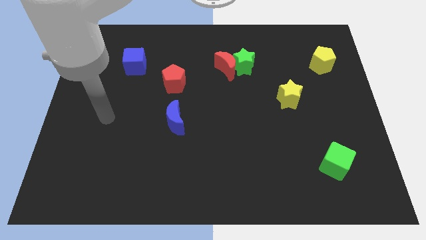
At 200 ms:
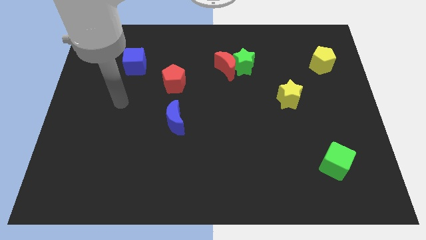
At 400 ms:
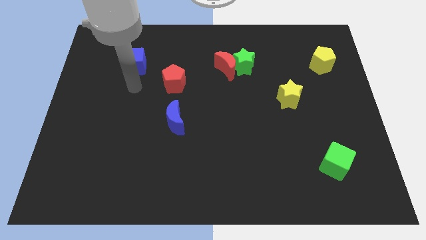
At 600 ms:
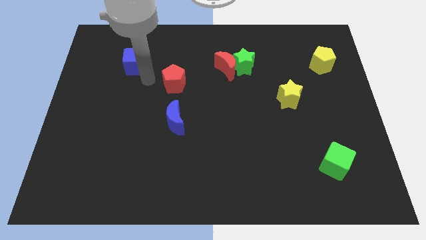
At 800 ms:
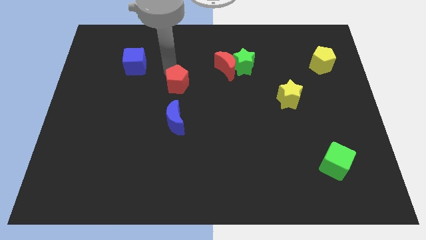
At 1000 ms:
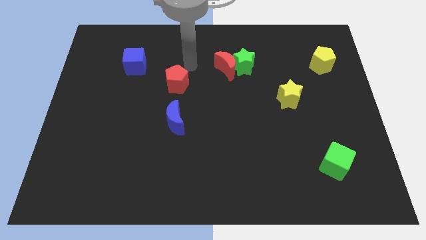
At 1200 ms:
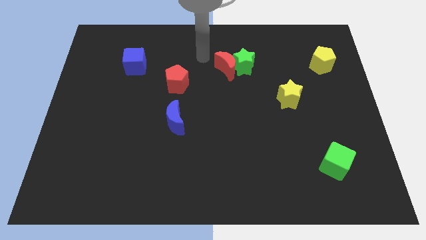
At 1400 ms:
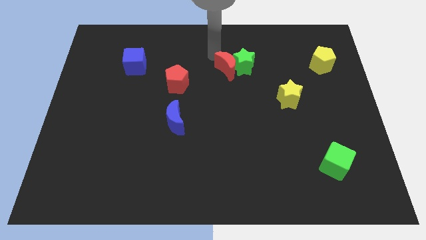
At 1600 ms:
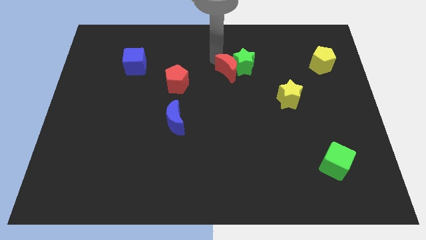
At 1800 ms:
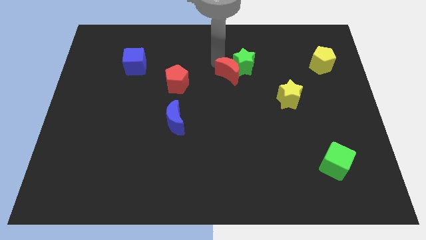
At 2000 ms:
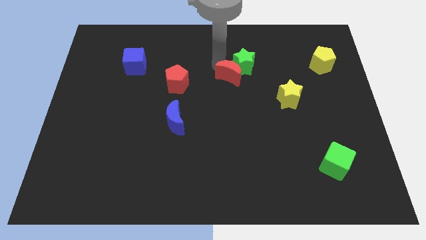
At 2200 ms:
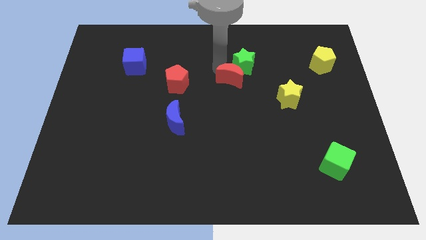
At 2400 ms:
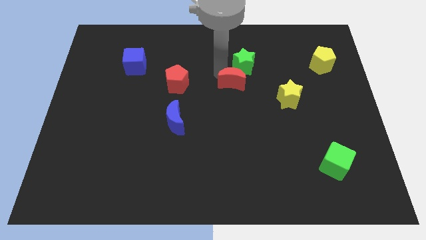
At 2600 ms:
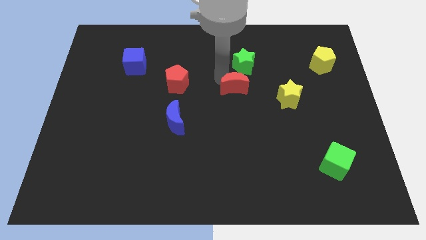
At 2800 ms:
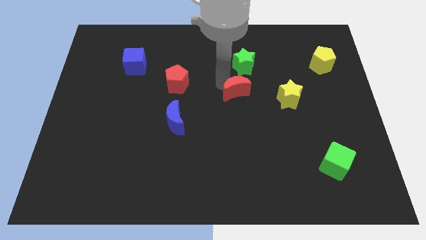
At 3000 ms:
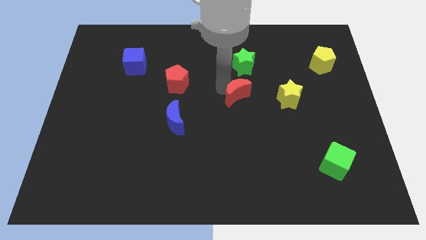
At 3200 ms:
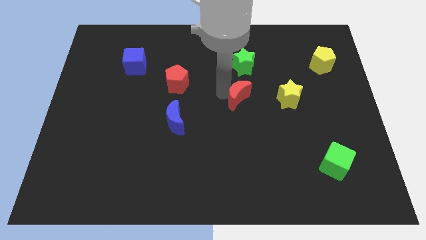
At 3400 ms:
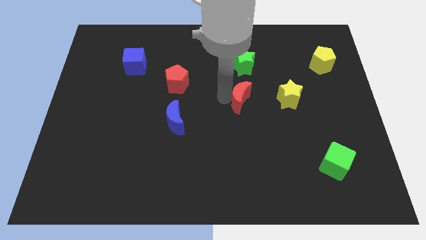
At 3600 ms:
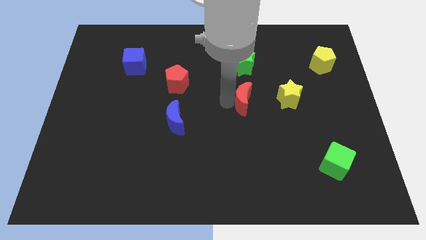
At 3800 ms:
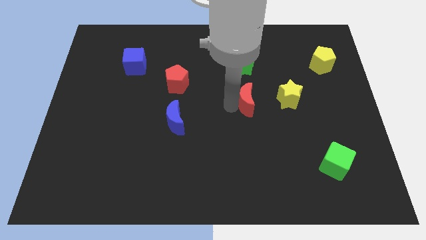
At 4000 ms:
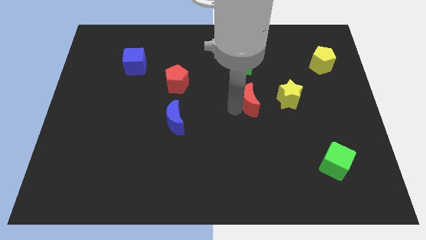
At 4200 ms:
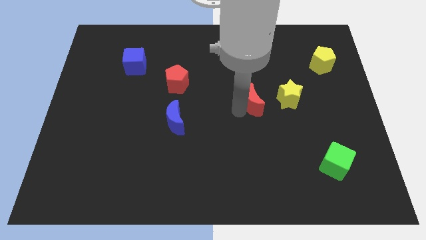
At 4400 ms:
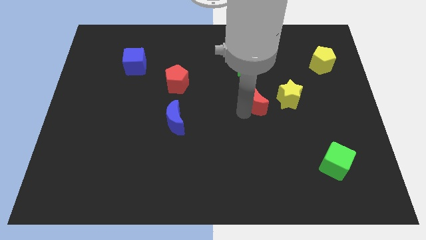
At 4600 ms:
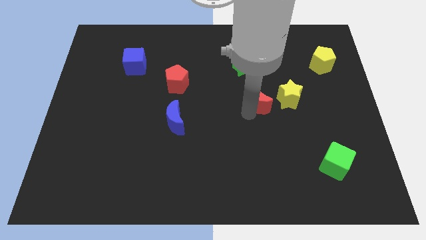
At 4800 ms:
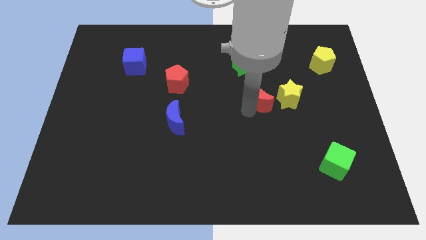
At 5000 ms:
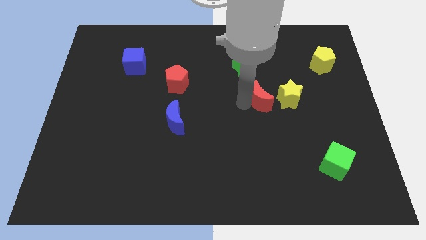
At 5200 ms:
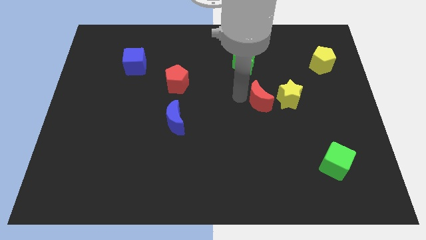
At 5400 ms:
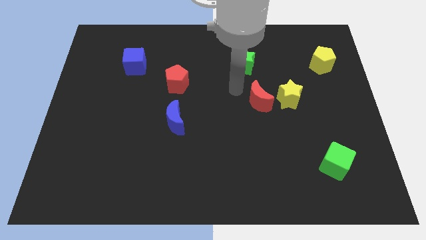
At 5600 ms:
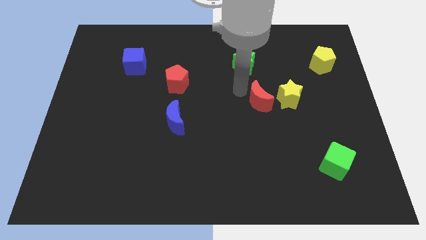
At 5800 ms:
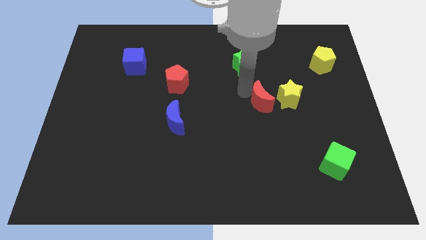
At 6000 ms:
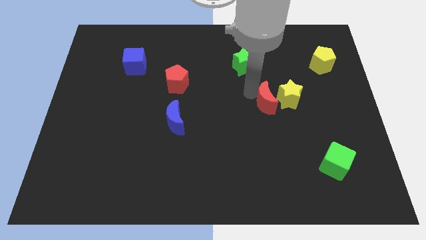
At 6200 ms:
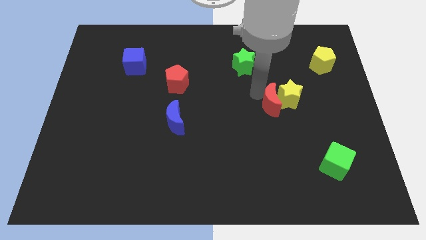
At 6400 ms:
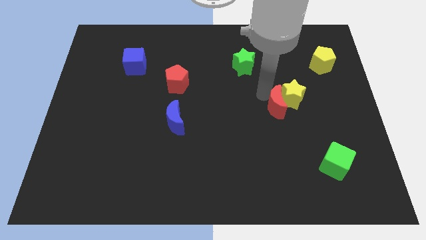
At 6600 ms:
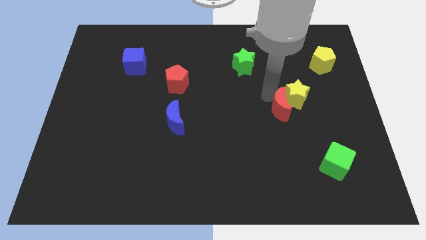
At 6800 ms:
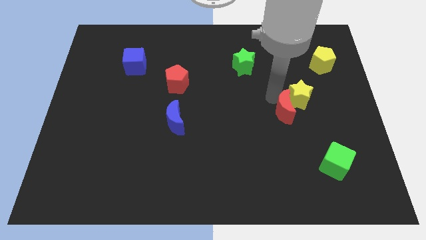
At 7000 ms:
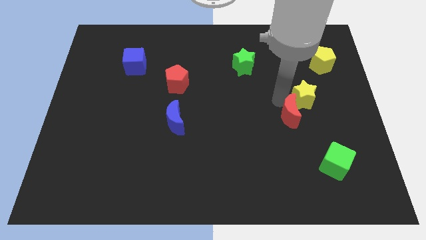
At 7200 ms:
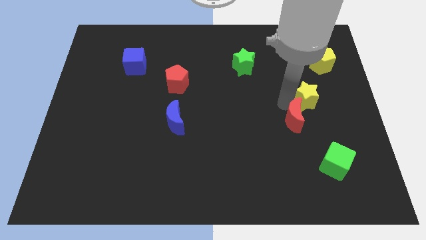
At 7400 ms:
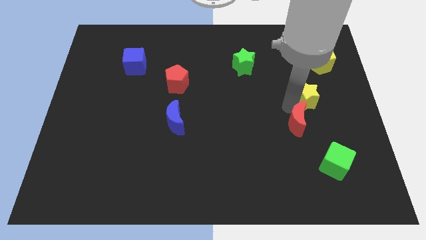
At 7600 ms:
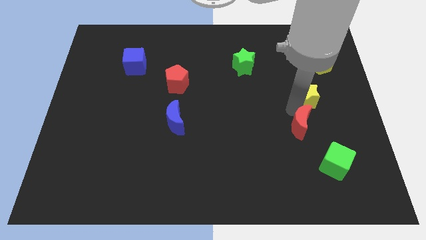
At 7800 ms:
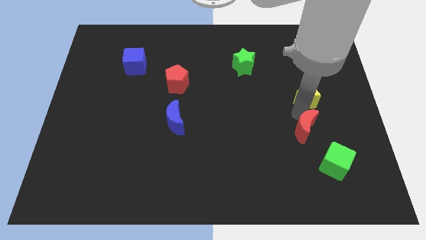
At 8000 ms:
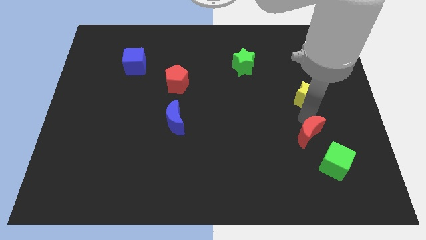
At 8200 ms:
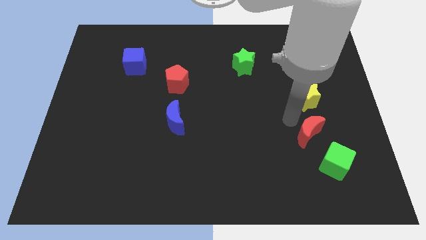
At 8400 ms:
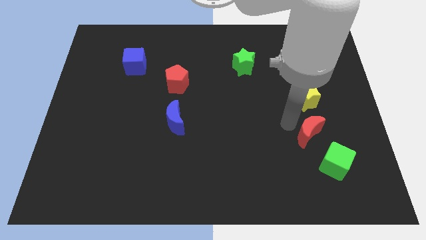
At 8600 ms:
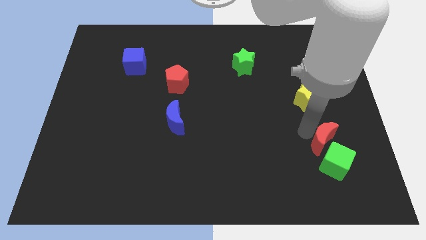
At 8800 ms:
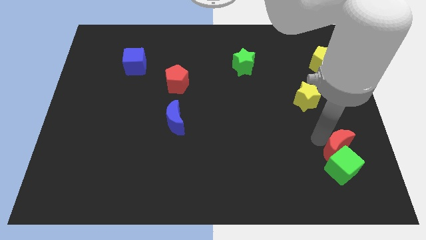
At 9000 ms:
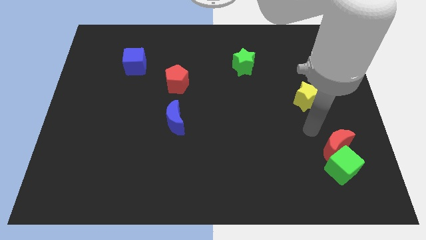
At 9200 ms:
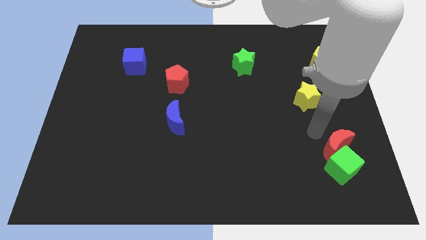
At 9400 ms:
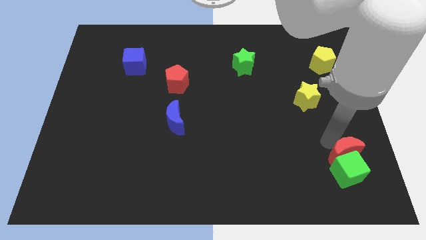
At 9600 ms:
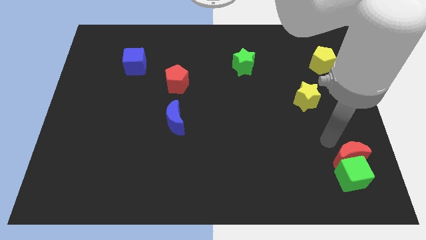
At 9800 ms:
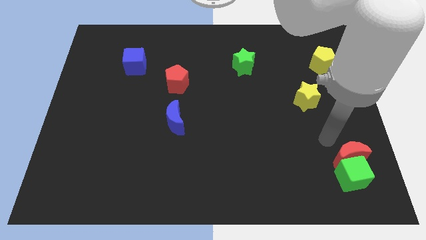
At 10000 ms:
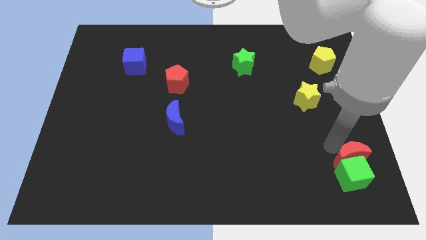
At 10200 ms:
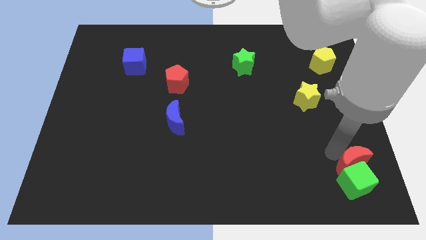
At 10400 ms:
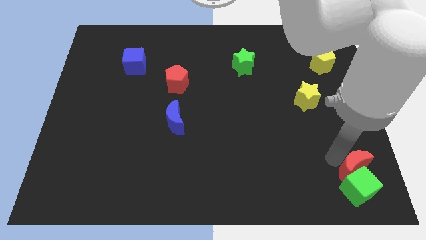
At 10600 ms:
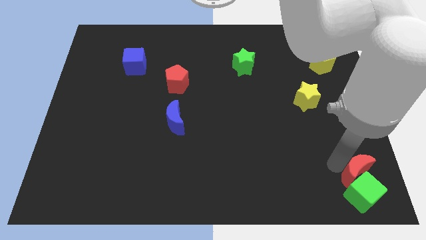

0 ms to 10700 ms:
move the red moon to the lower right corner

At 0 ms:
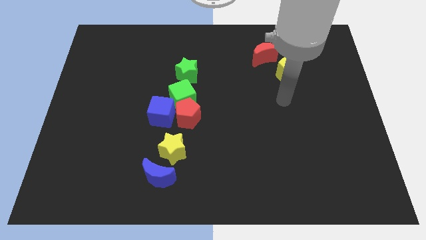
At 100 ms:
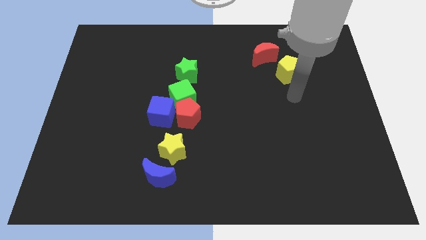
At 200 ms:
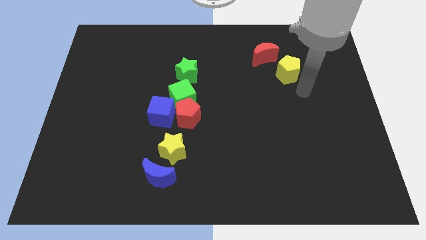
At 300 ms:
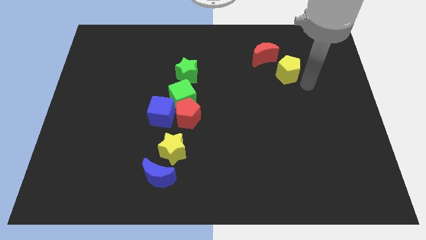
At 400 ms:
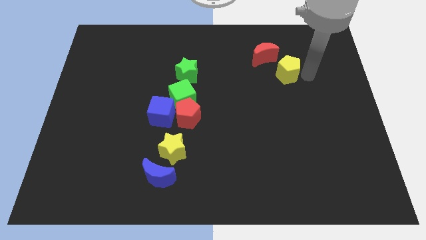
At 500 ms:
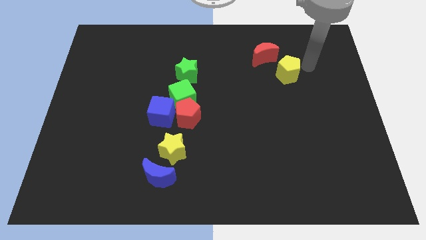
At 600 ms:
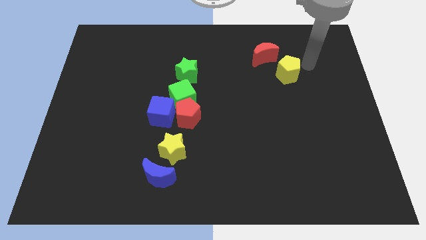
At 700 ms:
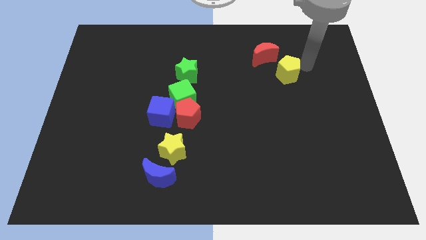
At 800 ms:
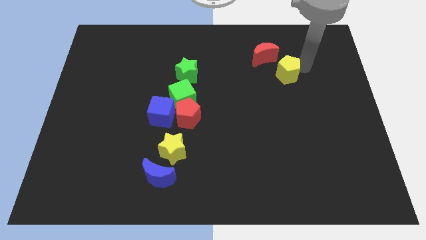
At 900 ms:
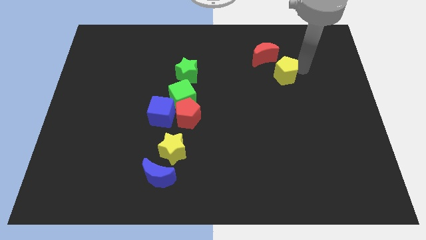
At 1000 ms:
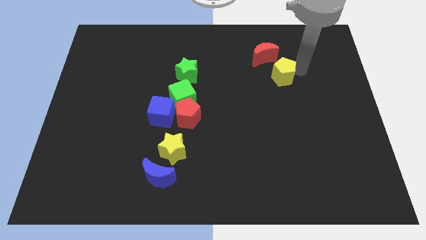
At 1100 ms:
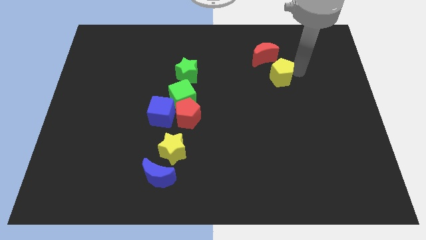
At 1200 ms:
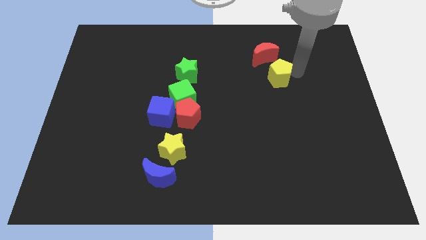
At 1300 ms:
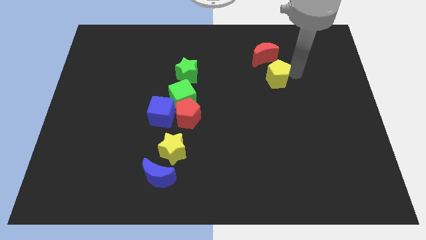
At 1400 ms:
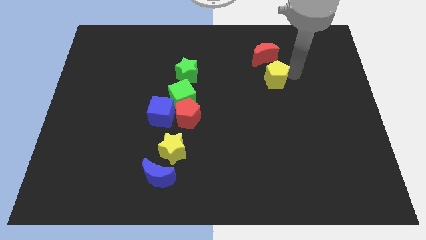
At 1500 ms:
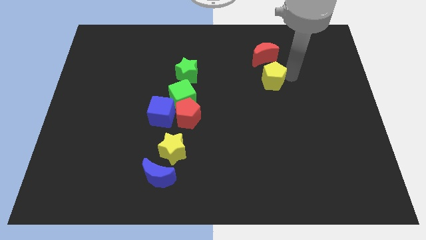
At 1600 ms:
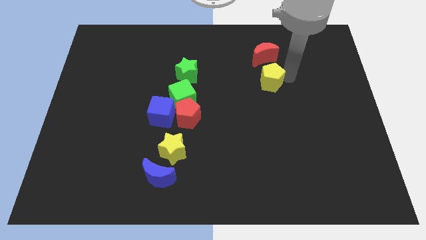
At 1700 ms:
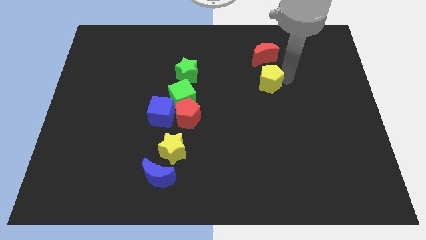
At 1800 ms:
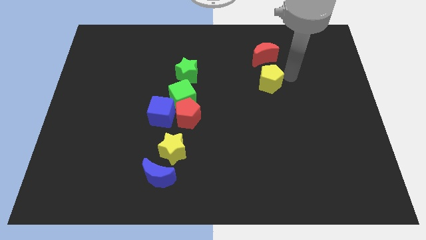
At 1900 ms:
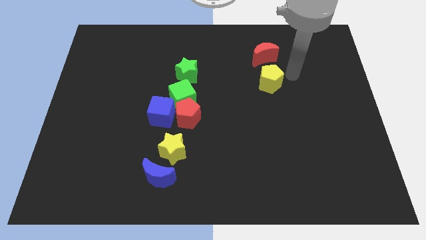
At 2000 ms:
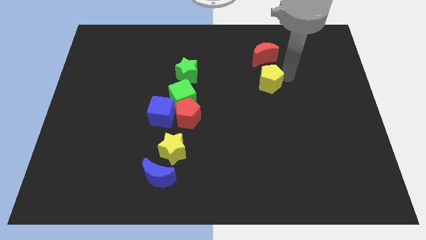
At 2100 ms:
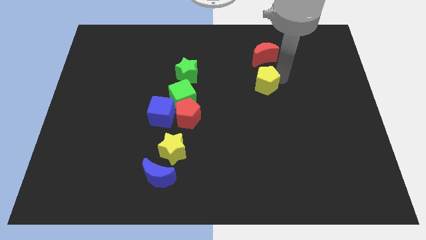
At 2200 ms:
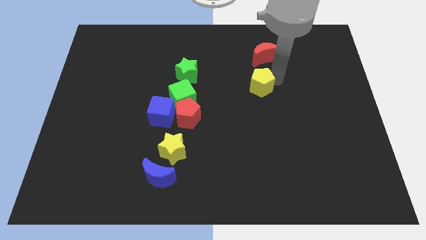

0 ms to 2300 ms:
slide the yellow pentagon to the middle
